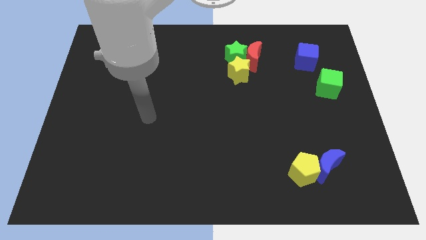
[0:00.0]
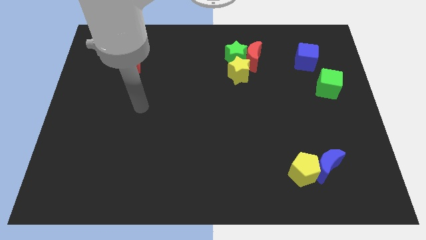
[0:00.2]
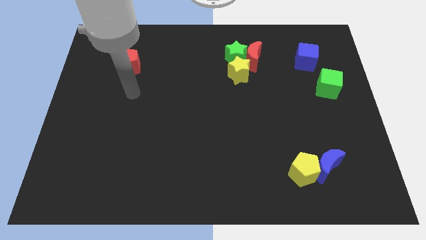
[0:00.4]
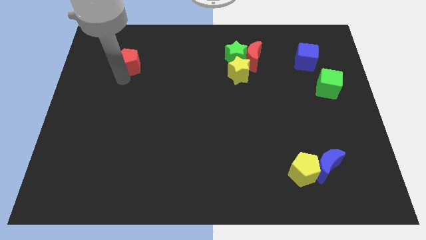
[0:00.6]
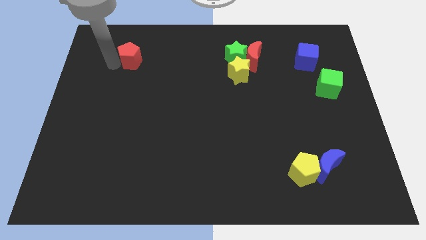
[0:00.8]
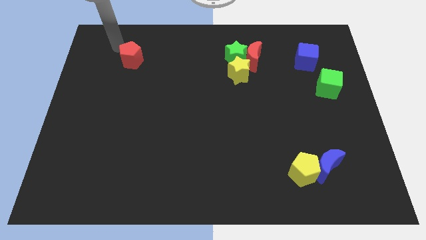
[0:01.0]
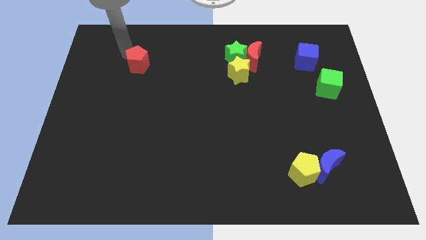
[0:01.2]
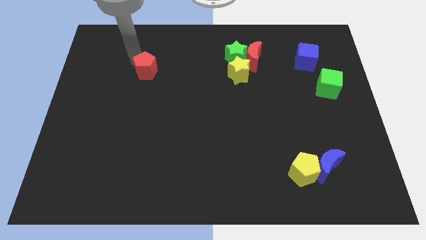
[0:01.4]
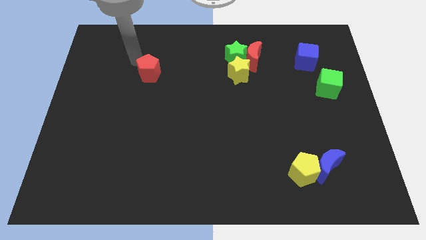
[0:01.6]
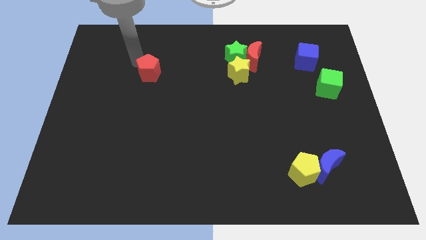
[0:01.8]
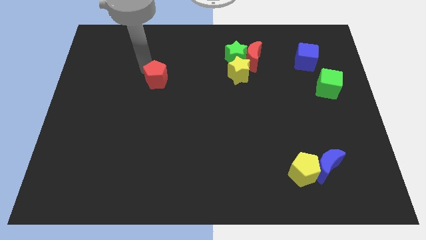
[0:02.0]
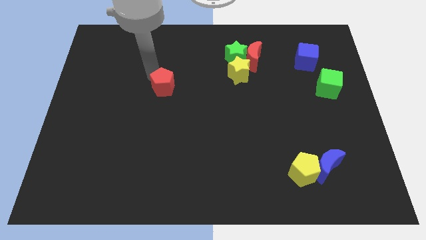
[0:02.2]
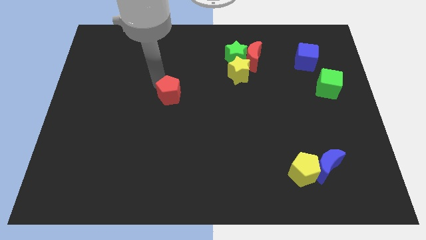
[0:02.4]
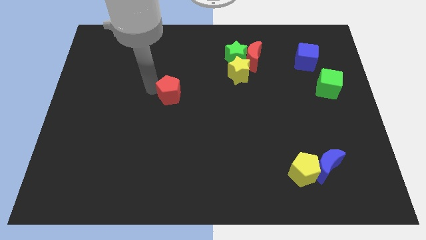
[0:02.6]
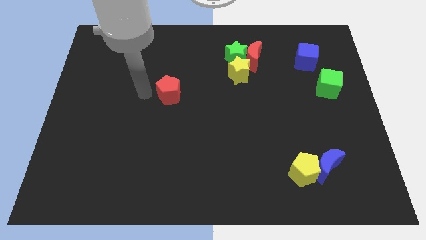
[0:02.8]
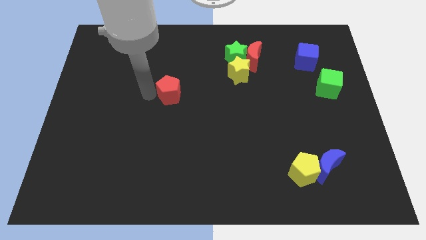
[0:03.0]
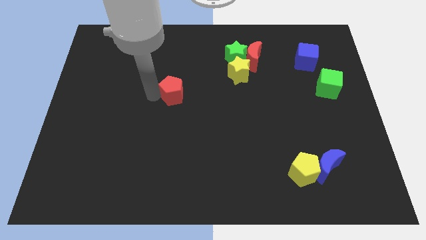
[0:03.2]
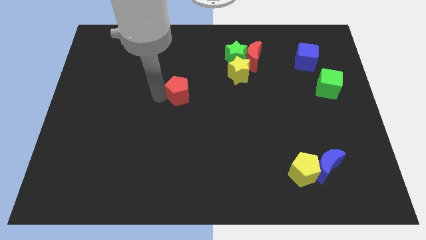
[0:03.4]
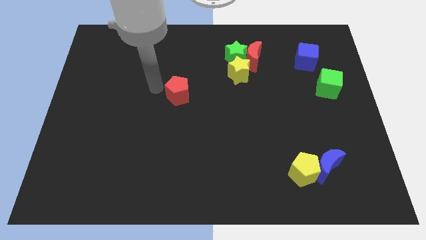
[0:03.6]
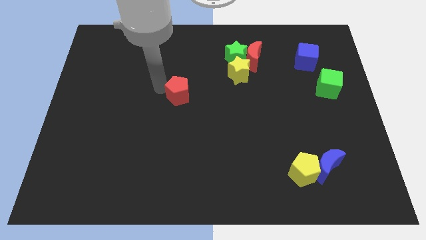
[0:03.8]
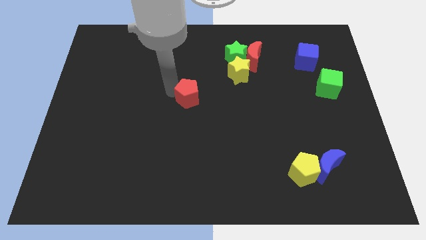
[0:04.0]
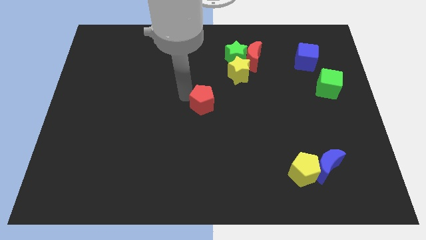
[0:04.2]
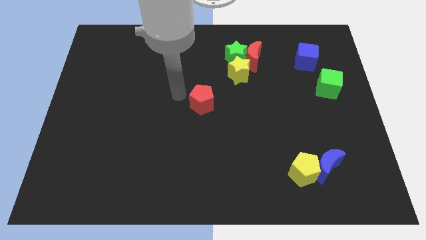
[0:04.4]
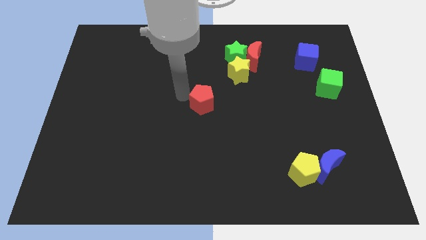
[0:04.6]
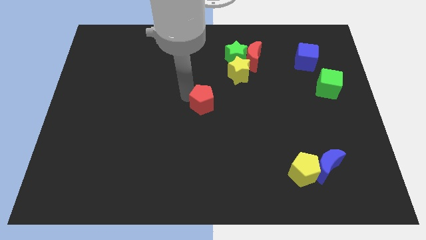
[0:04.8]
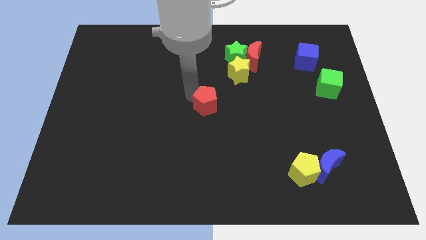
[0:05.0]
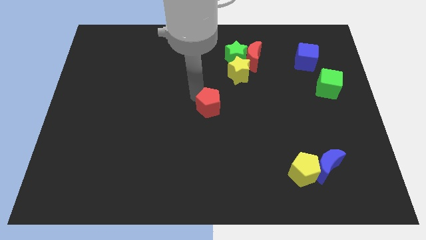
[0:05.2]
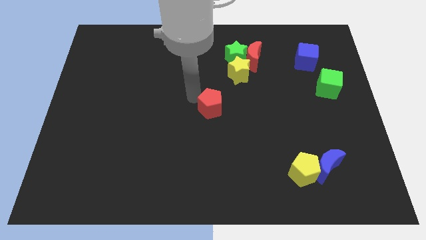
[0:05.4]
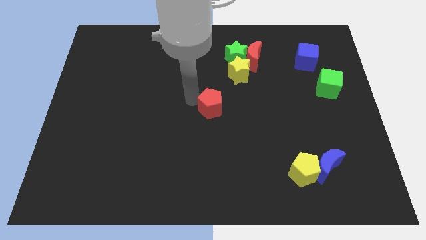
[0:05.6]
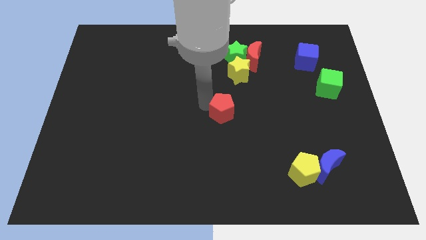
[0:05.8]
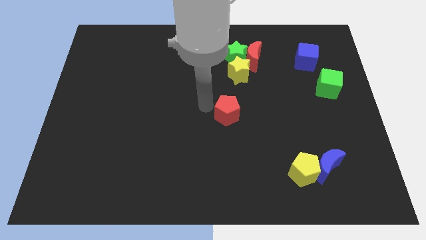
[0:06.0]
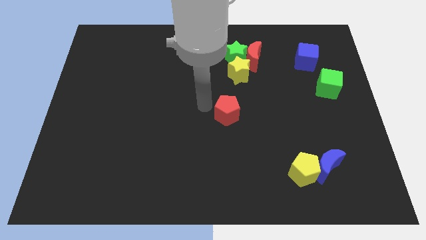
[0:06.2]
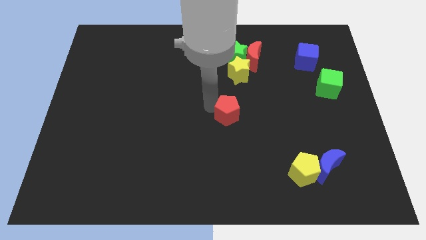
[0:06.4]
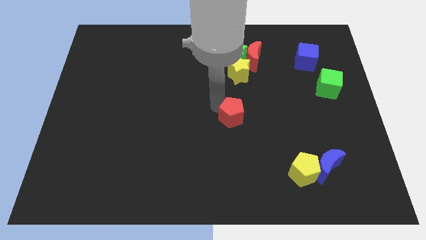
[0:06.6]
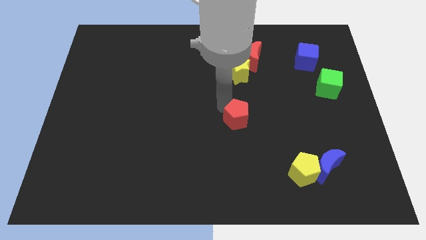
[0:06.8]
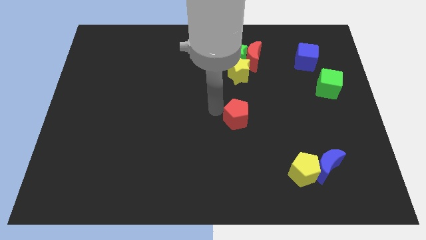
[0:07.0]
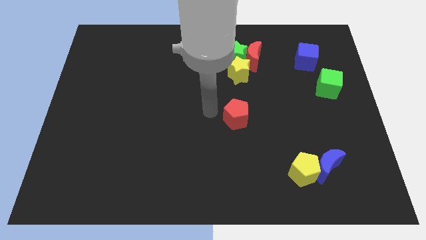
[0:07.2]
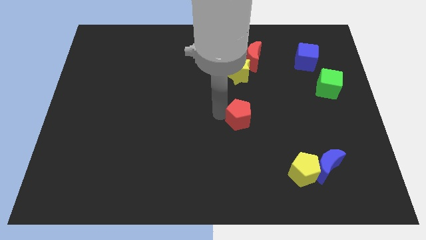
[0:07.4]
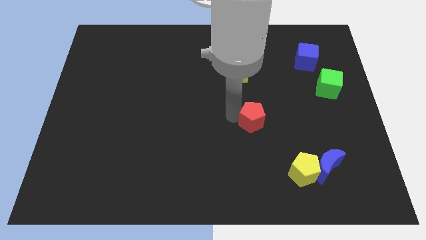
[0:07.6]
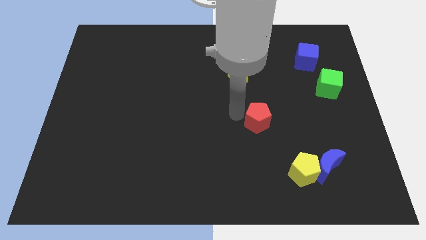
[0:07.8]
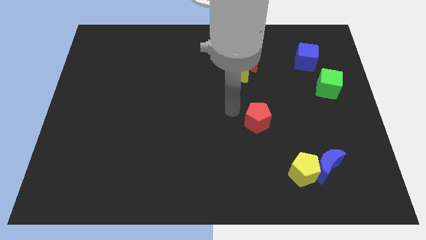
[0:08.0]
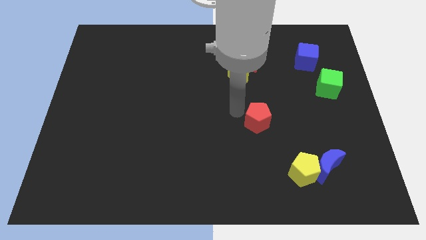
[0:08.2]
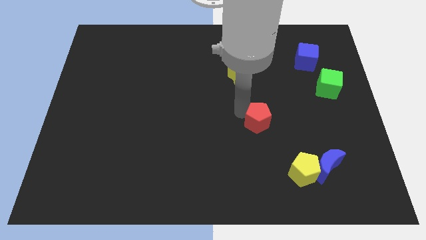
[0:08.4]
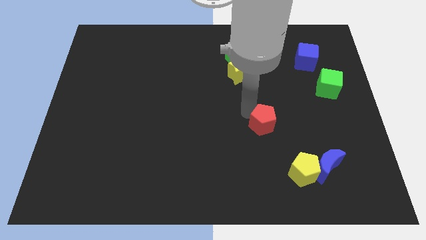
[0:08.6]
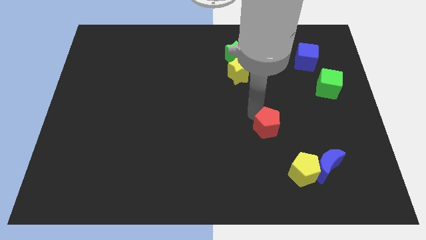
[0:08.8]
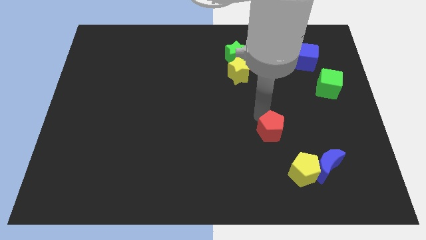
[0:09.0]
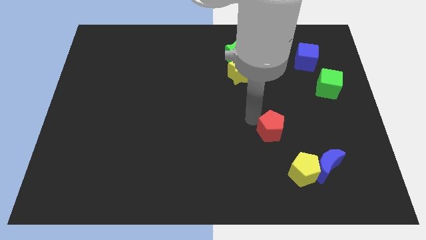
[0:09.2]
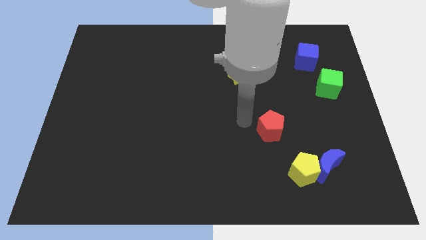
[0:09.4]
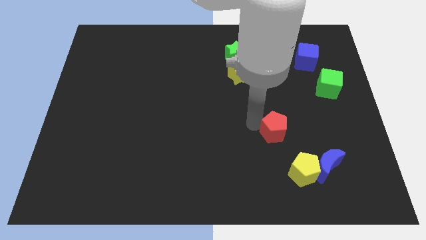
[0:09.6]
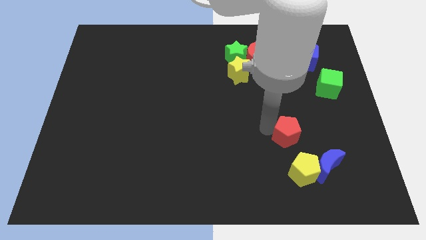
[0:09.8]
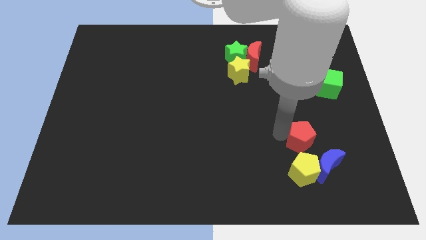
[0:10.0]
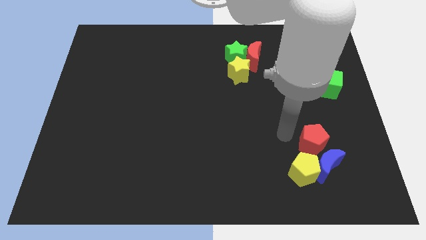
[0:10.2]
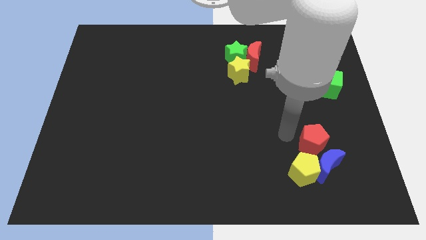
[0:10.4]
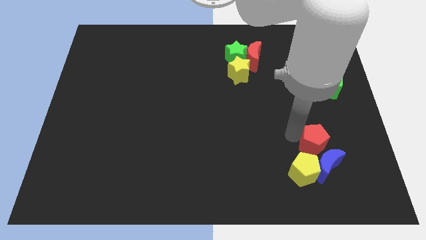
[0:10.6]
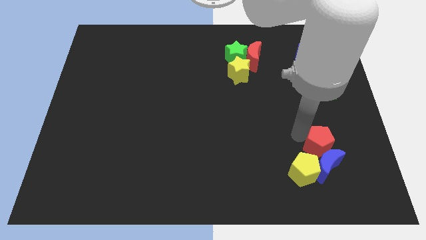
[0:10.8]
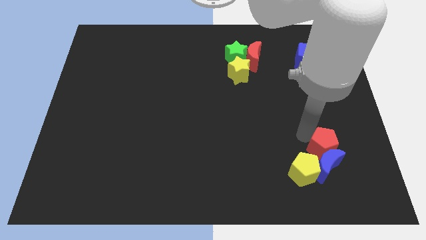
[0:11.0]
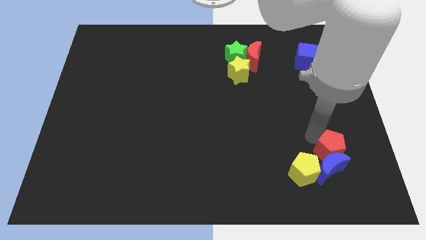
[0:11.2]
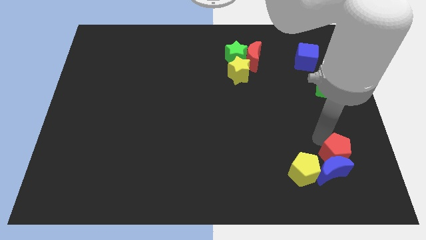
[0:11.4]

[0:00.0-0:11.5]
push the red pentagon to the right side of the yellow pentagon

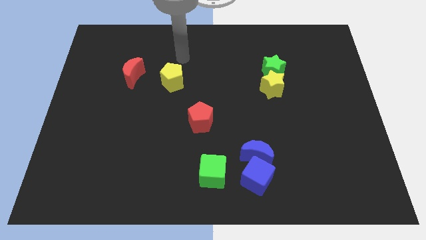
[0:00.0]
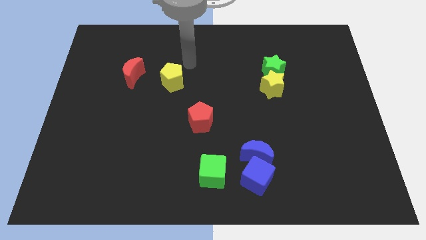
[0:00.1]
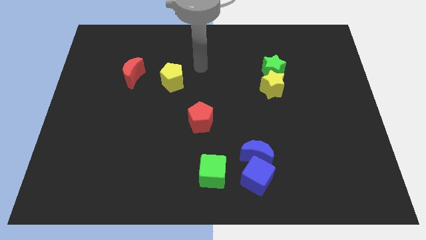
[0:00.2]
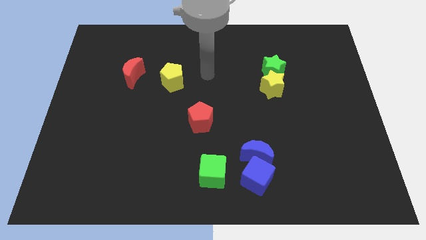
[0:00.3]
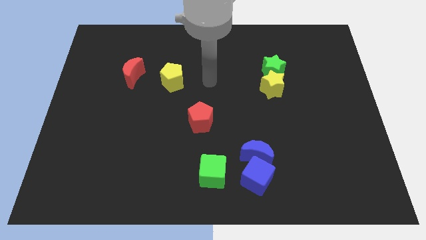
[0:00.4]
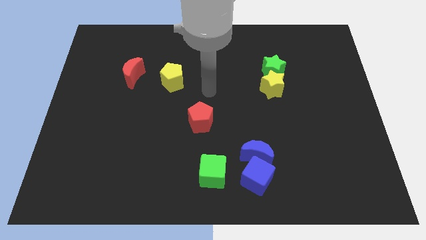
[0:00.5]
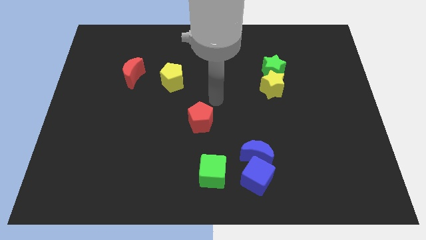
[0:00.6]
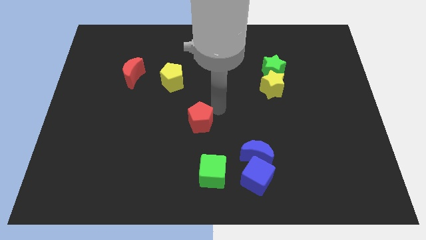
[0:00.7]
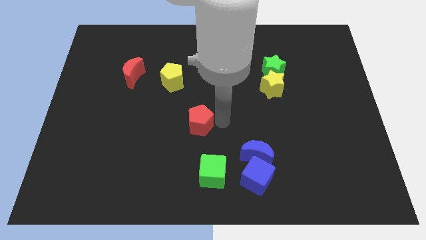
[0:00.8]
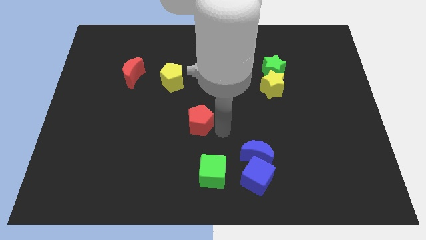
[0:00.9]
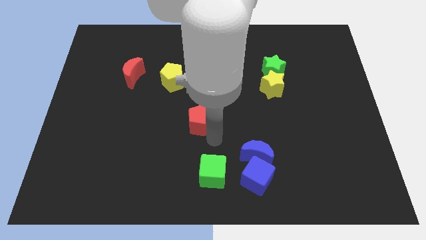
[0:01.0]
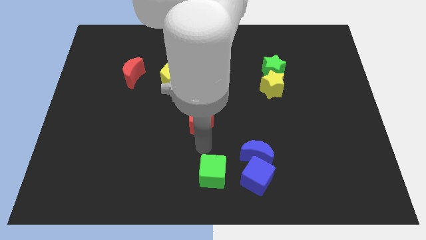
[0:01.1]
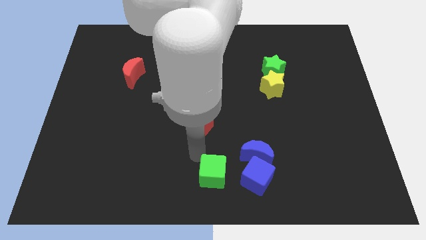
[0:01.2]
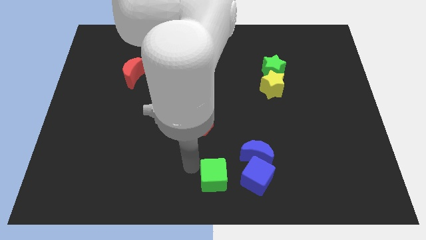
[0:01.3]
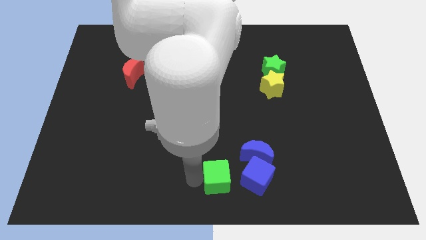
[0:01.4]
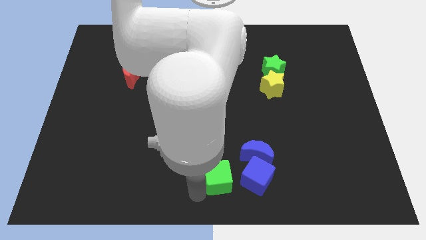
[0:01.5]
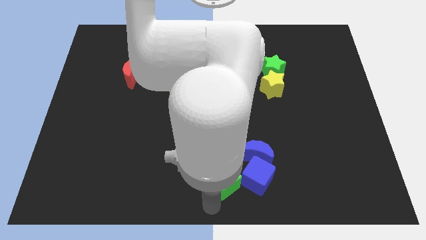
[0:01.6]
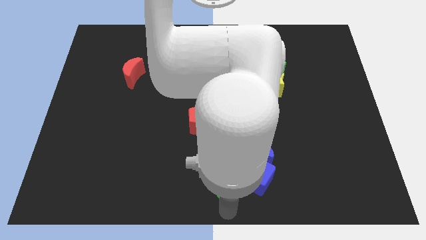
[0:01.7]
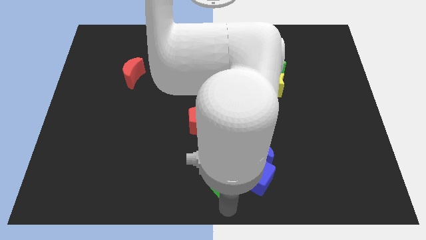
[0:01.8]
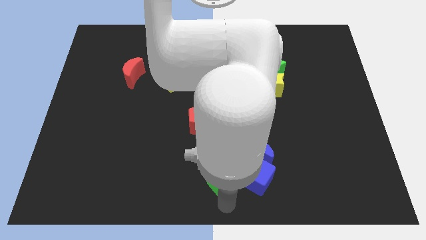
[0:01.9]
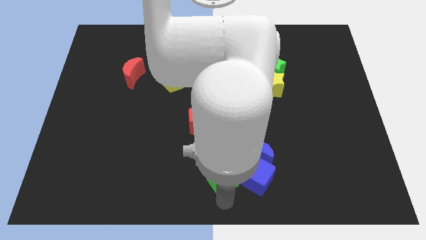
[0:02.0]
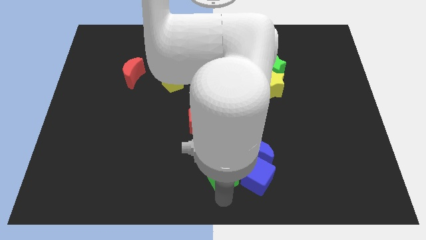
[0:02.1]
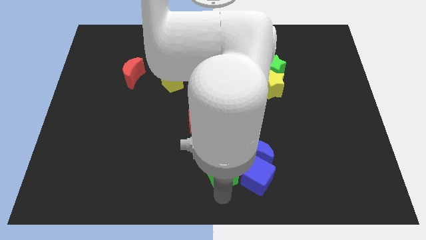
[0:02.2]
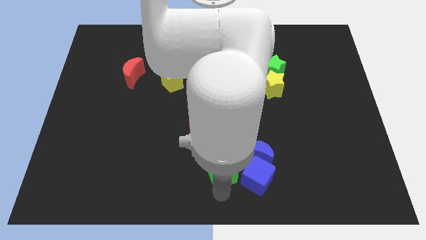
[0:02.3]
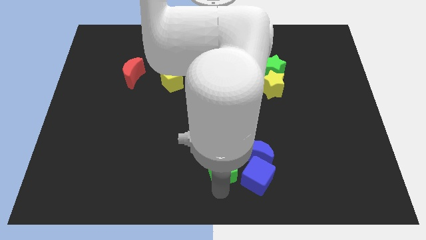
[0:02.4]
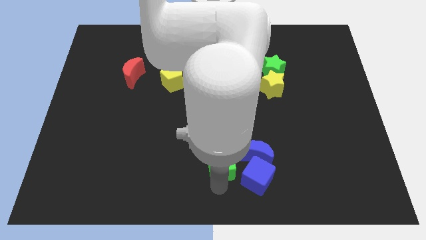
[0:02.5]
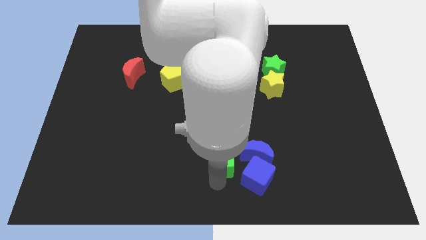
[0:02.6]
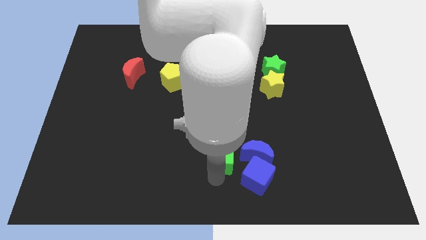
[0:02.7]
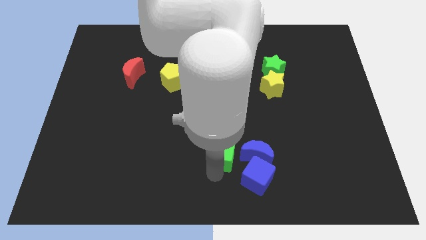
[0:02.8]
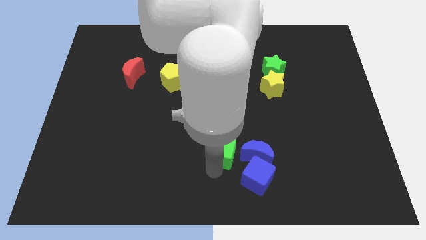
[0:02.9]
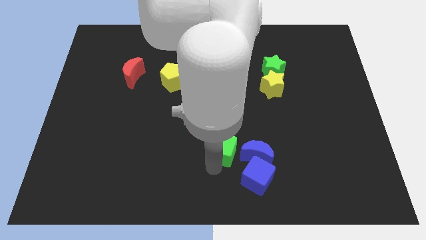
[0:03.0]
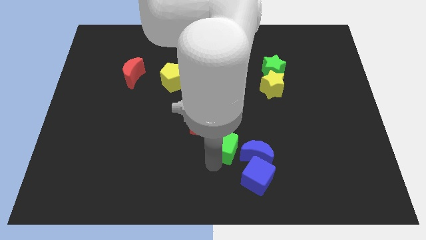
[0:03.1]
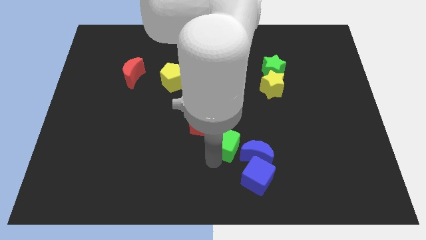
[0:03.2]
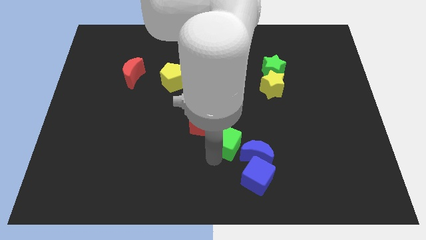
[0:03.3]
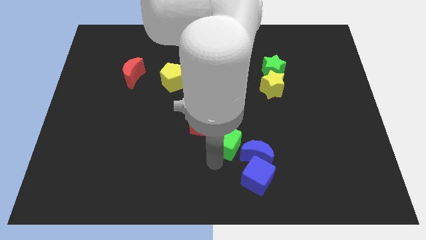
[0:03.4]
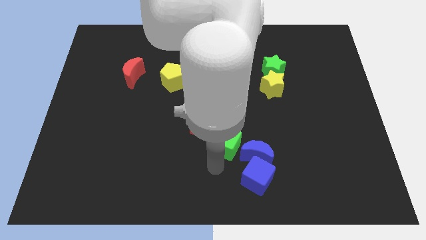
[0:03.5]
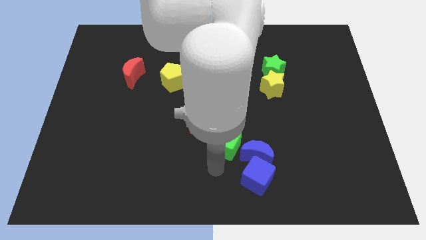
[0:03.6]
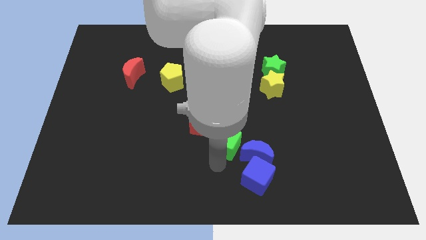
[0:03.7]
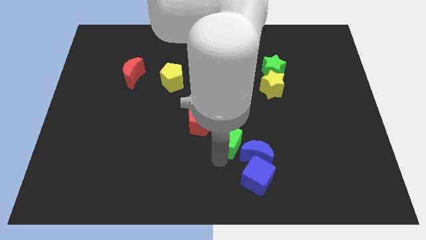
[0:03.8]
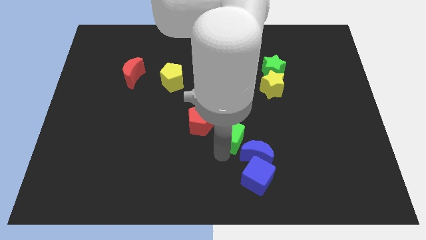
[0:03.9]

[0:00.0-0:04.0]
push the green cube just right of the red pentagon
